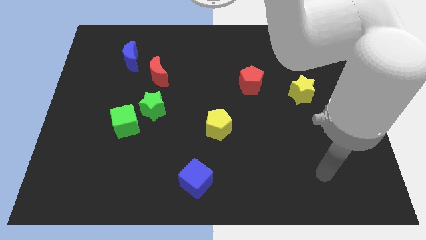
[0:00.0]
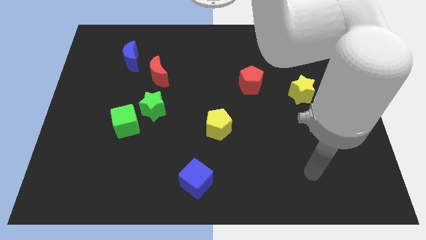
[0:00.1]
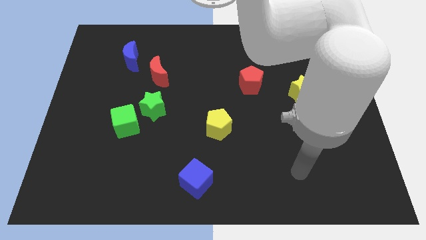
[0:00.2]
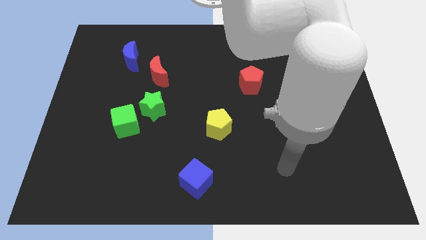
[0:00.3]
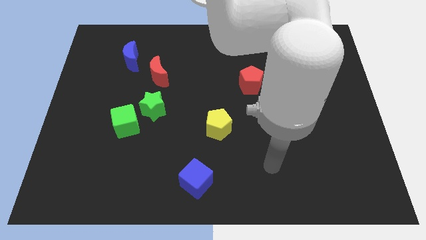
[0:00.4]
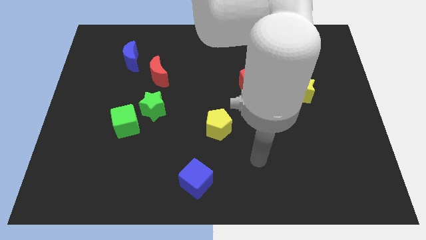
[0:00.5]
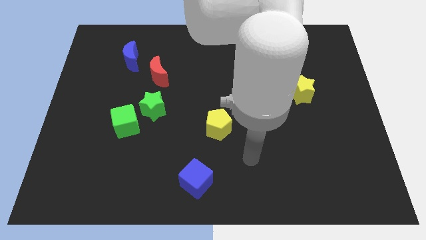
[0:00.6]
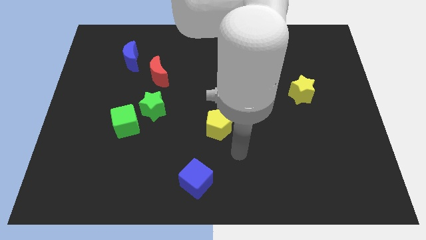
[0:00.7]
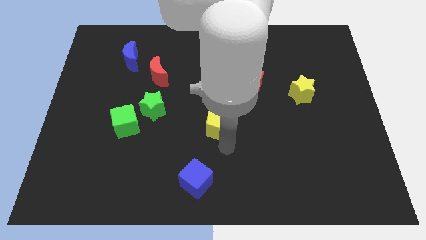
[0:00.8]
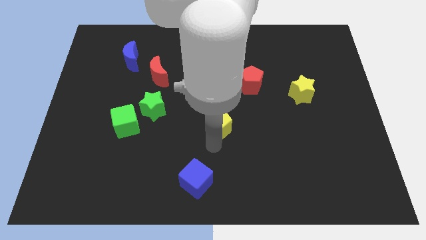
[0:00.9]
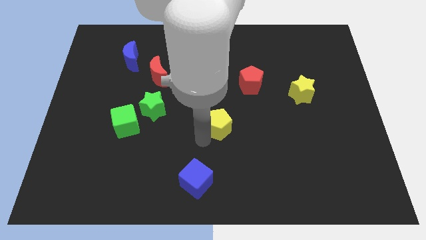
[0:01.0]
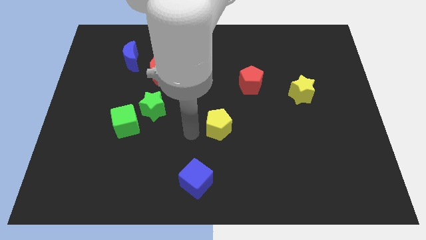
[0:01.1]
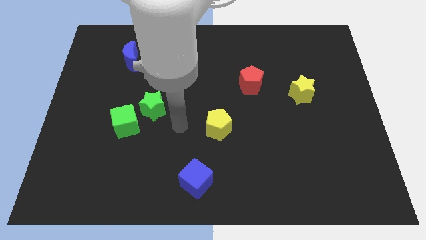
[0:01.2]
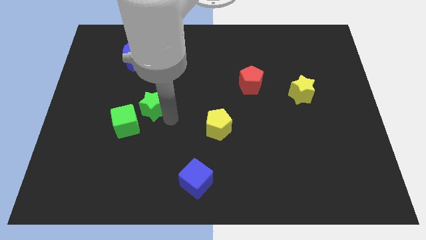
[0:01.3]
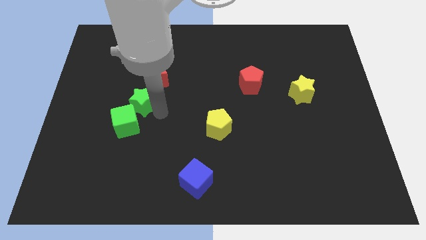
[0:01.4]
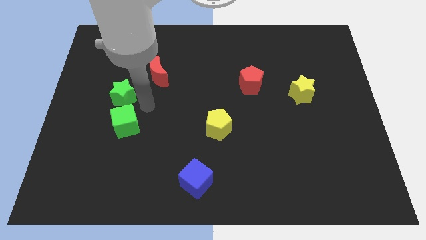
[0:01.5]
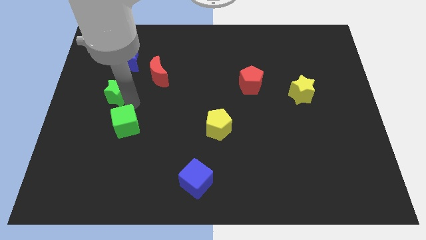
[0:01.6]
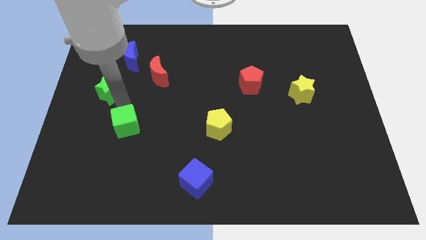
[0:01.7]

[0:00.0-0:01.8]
move the green cube away from the green star

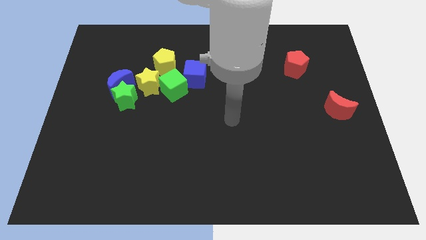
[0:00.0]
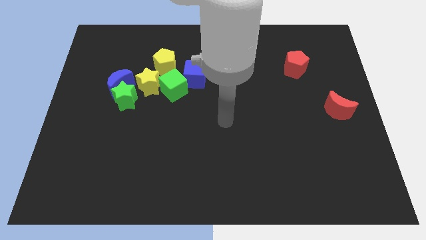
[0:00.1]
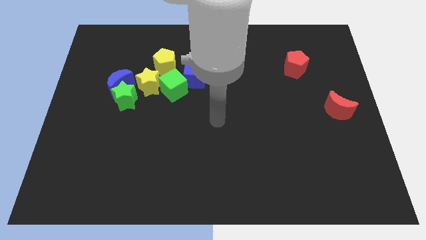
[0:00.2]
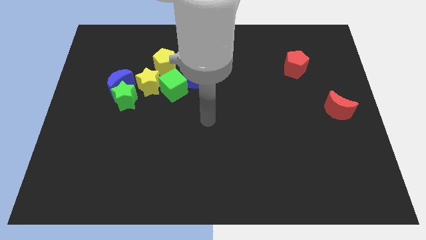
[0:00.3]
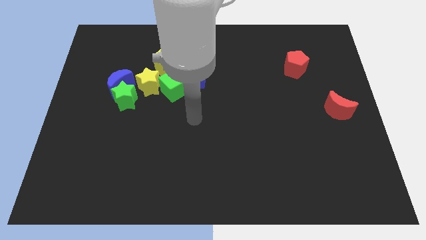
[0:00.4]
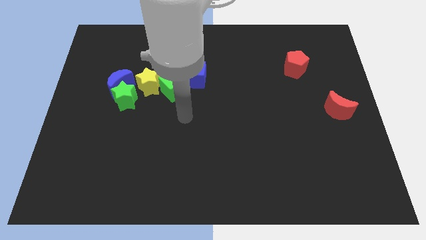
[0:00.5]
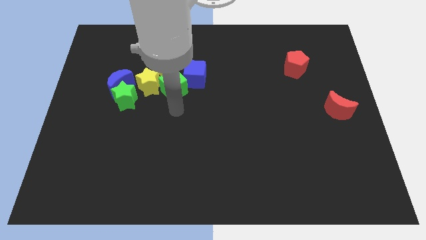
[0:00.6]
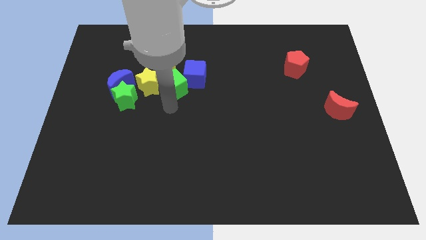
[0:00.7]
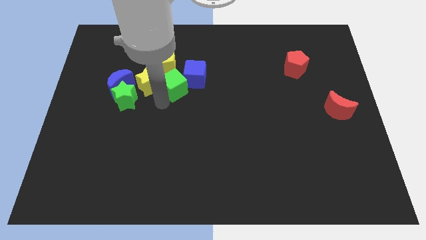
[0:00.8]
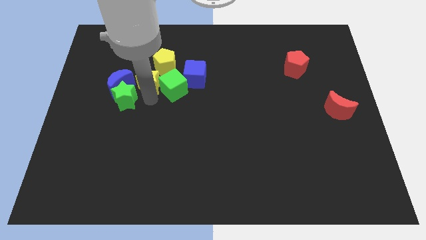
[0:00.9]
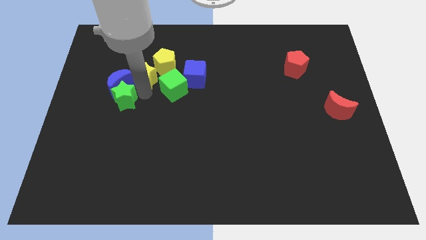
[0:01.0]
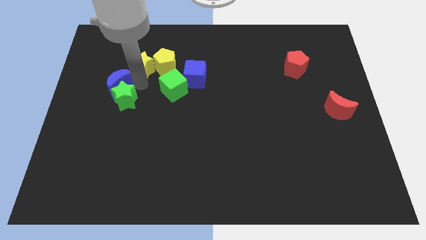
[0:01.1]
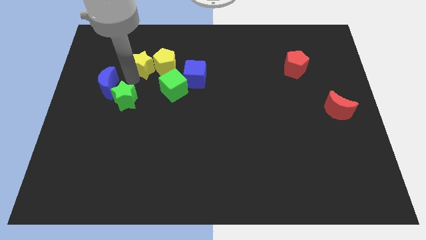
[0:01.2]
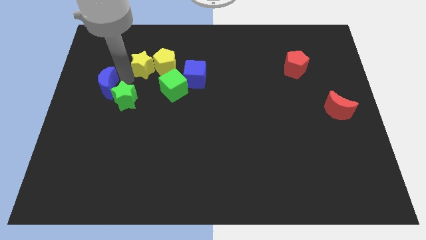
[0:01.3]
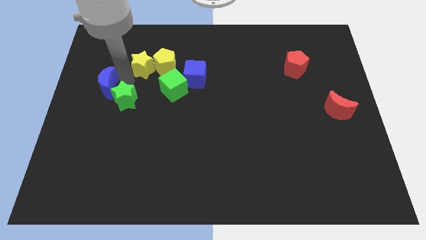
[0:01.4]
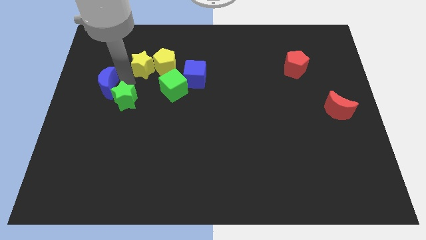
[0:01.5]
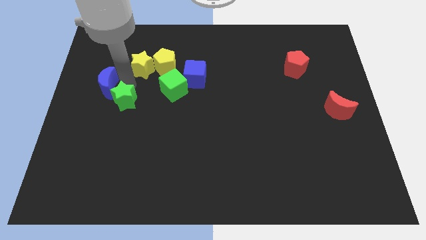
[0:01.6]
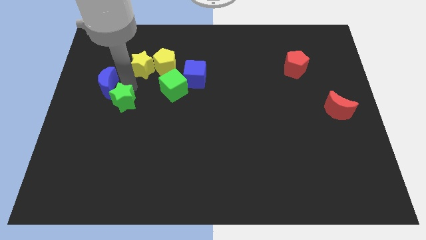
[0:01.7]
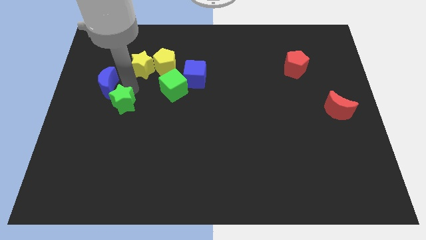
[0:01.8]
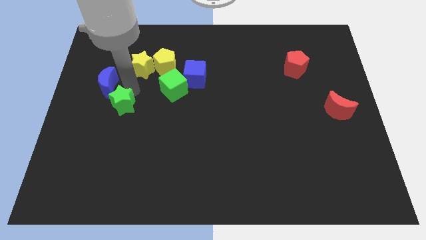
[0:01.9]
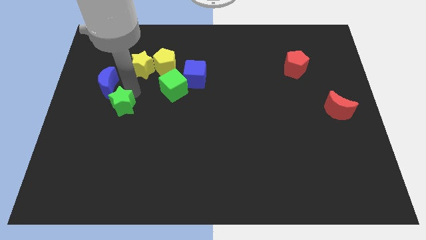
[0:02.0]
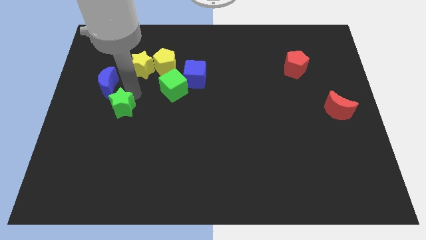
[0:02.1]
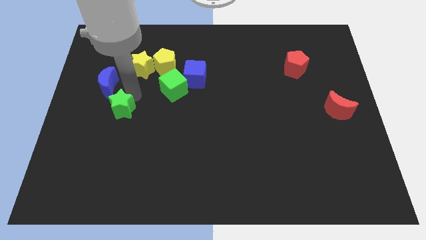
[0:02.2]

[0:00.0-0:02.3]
move the green star away from the blue moon and yellow star

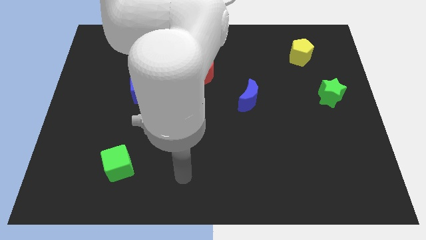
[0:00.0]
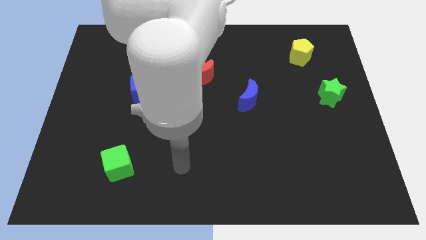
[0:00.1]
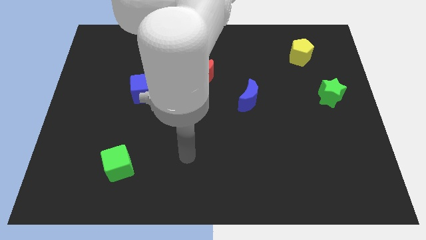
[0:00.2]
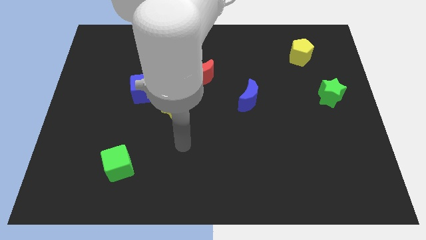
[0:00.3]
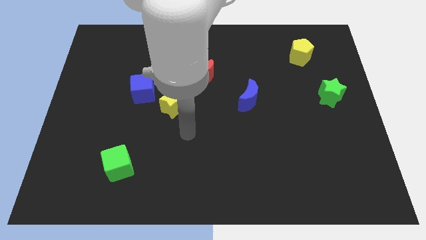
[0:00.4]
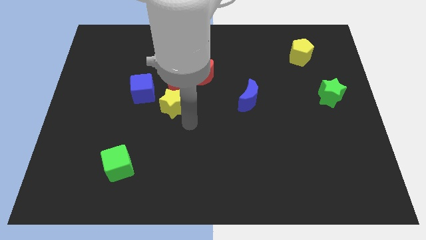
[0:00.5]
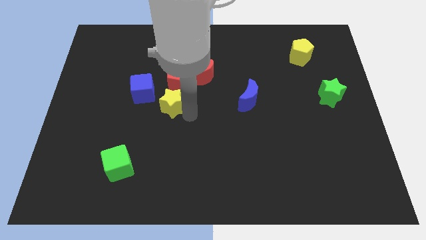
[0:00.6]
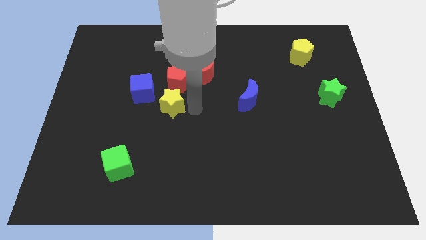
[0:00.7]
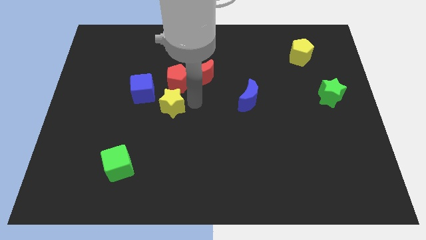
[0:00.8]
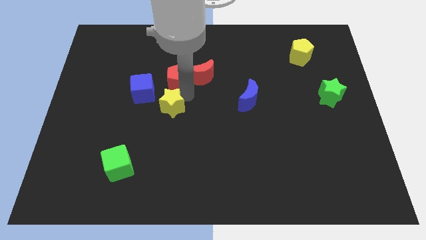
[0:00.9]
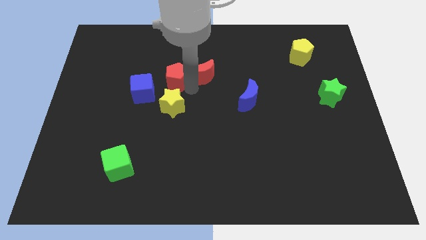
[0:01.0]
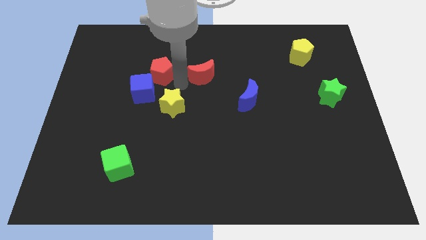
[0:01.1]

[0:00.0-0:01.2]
separate the red moon from the red pentagon

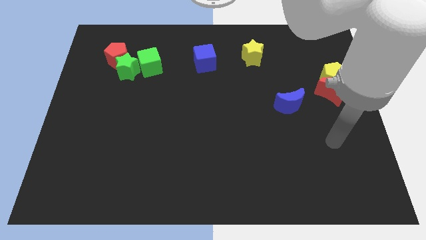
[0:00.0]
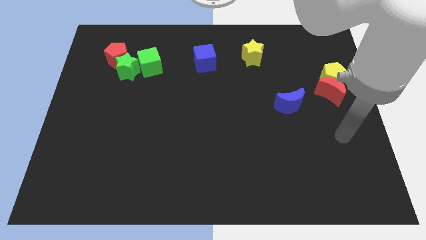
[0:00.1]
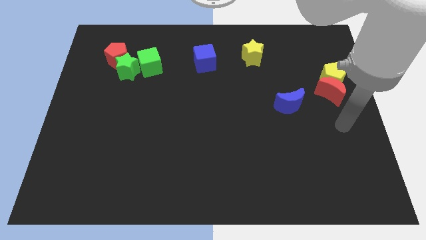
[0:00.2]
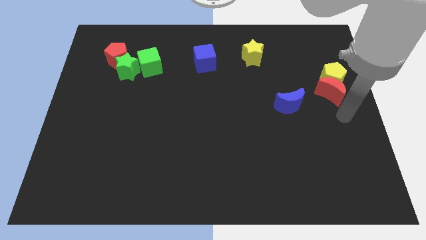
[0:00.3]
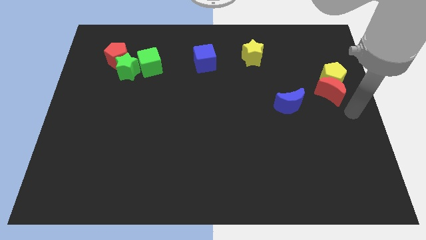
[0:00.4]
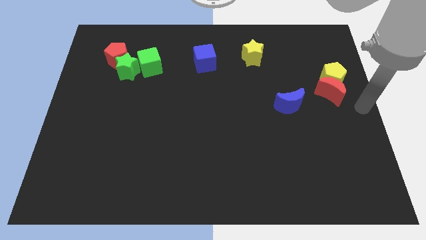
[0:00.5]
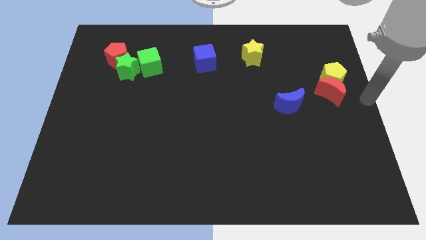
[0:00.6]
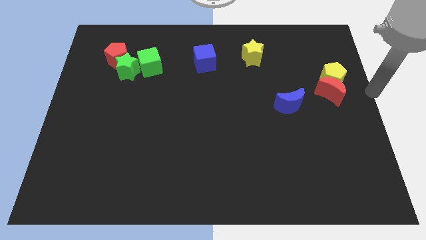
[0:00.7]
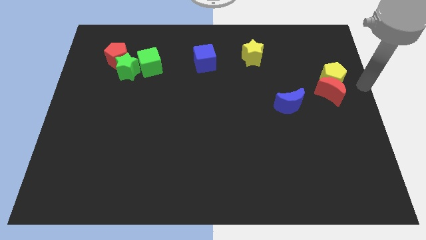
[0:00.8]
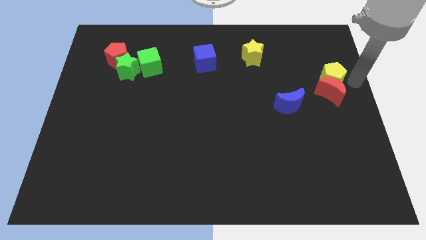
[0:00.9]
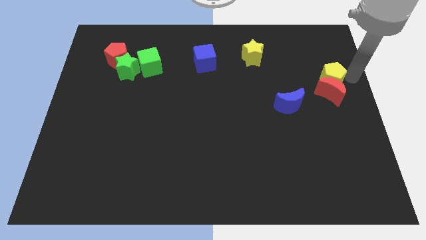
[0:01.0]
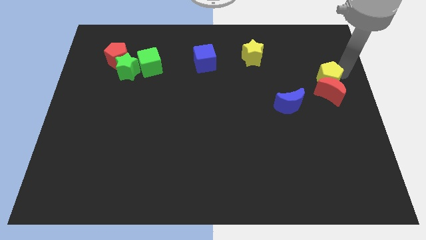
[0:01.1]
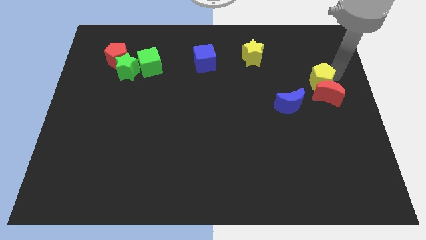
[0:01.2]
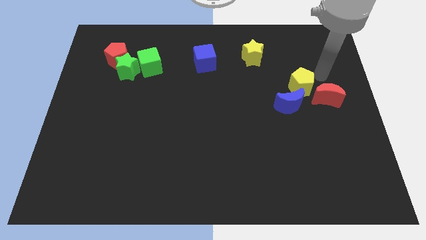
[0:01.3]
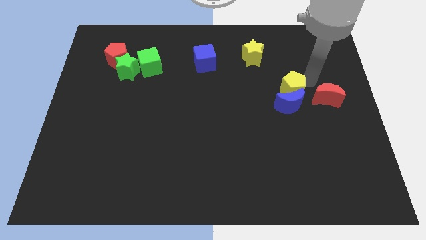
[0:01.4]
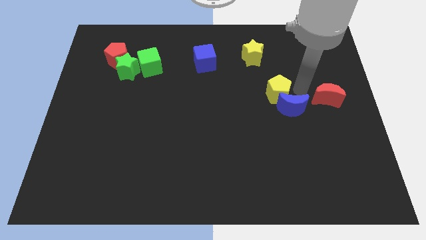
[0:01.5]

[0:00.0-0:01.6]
separate the red moon from the yellow pentagon

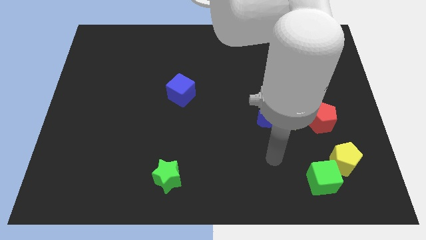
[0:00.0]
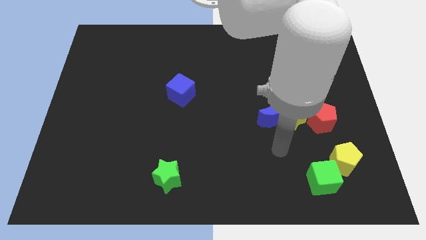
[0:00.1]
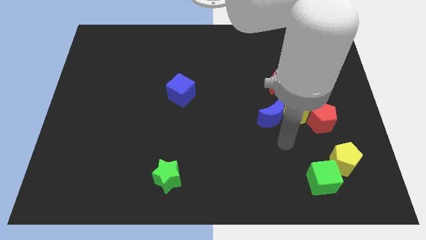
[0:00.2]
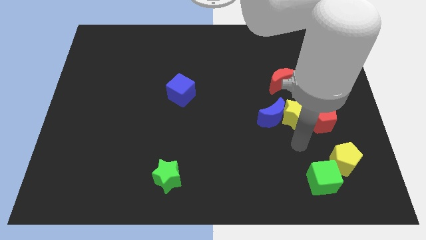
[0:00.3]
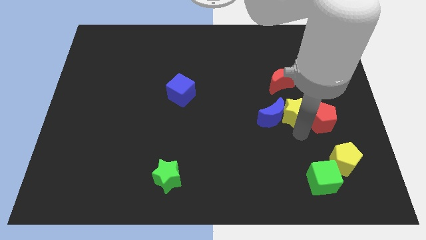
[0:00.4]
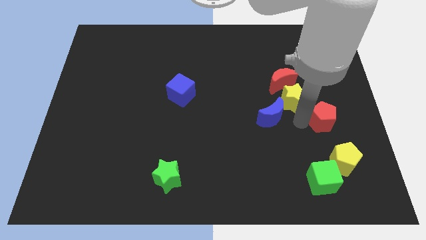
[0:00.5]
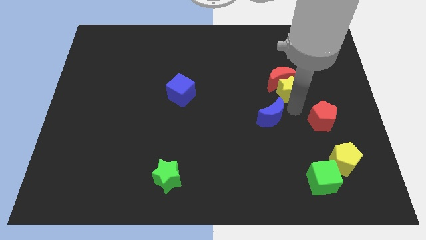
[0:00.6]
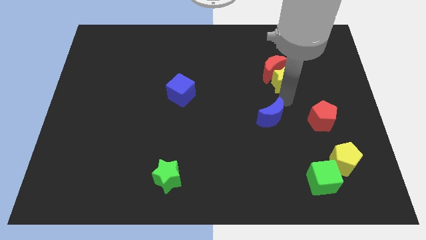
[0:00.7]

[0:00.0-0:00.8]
pull the blue moon apart from the yellow star

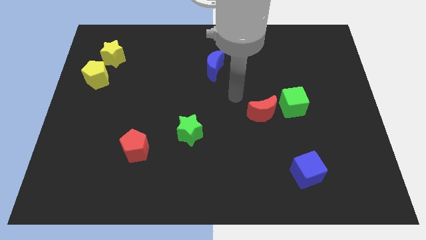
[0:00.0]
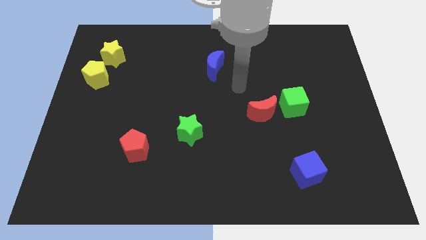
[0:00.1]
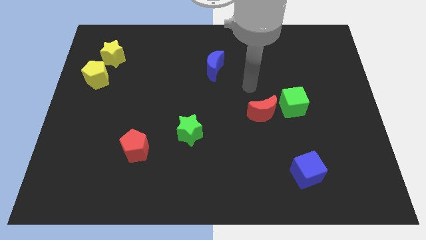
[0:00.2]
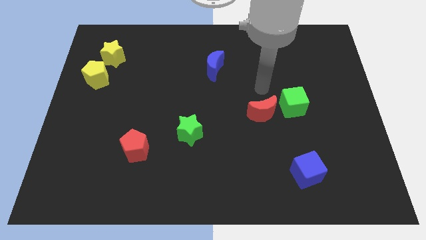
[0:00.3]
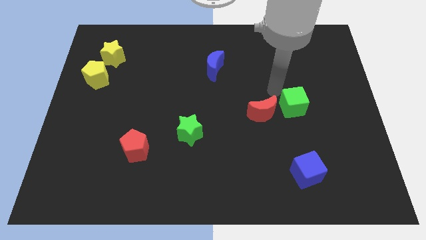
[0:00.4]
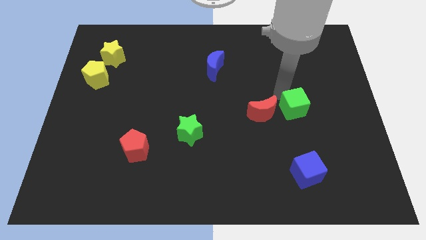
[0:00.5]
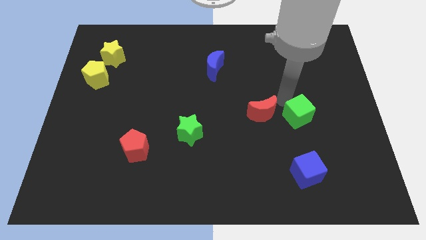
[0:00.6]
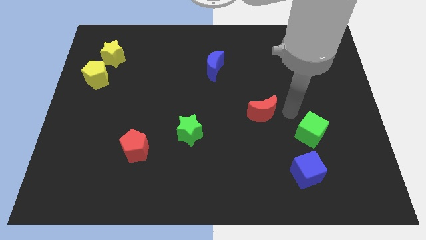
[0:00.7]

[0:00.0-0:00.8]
pull the red moon apart from the green cube

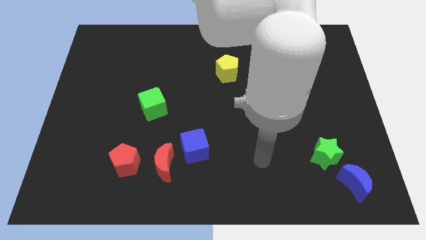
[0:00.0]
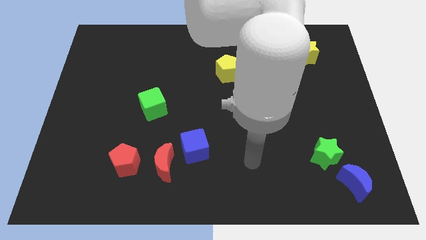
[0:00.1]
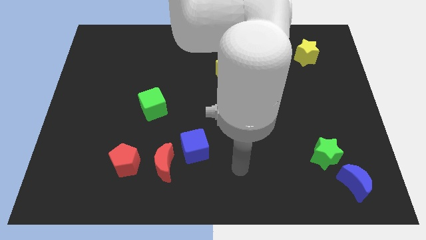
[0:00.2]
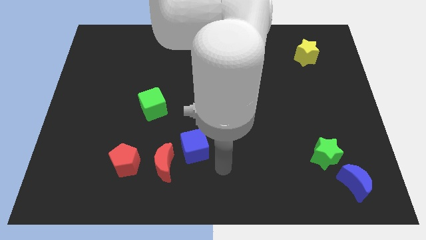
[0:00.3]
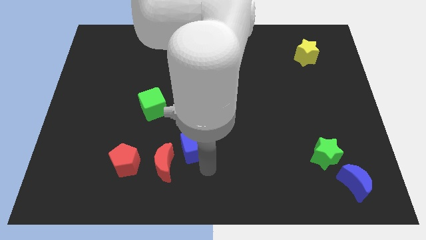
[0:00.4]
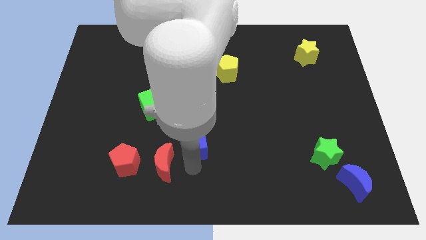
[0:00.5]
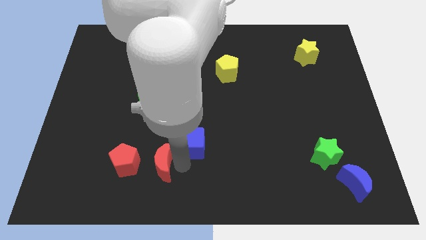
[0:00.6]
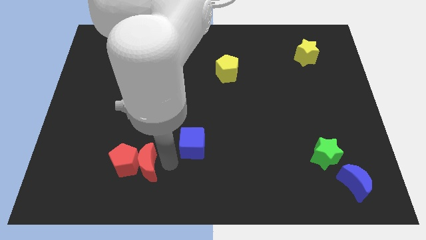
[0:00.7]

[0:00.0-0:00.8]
move the blue cube away from the red moon
